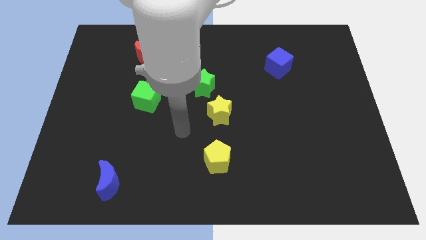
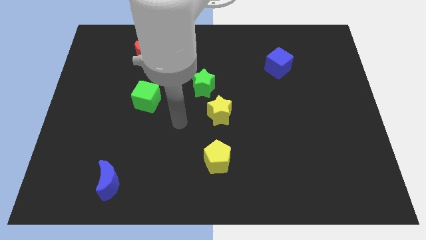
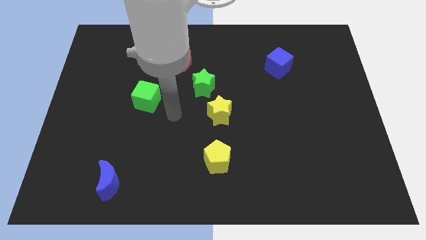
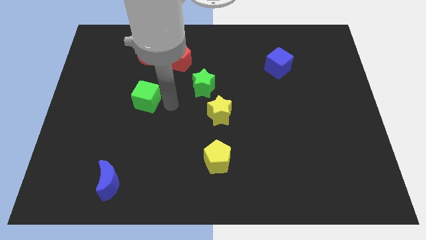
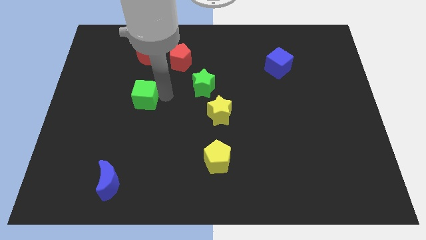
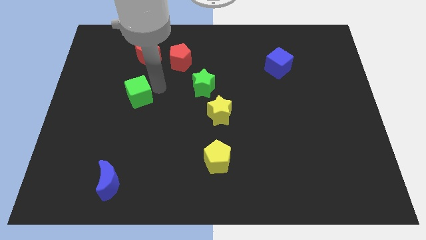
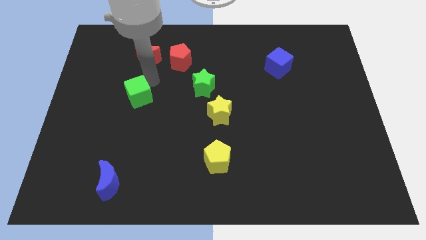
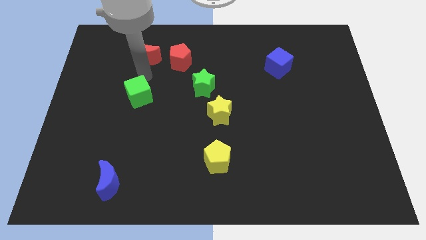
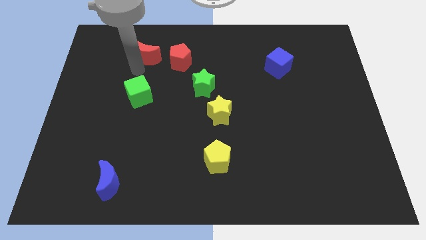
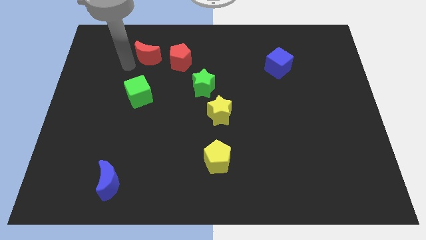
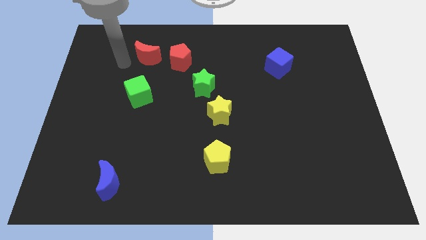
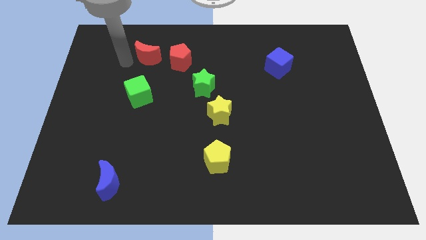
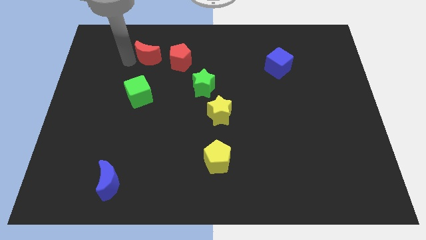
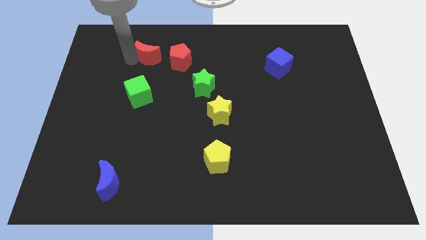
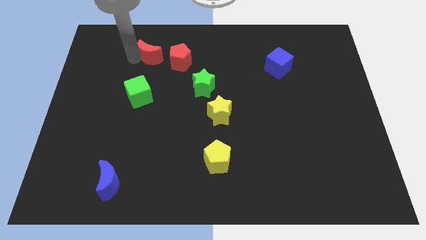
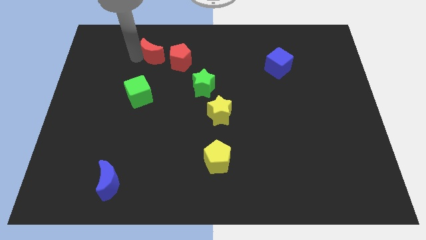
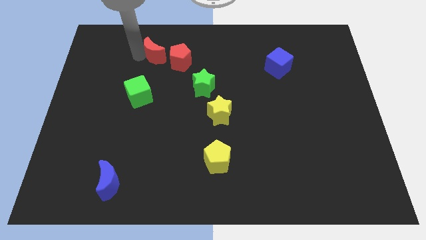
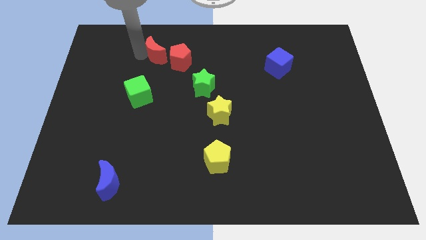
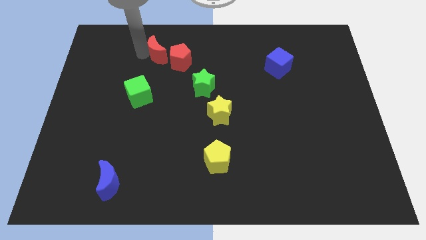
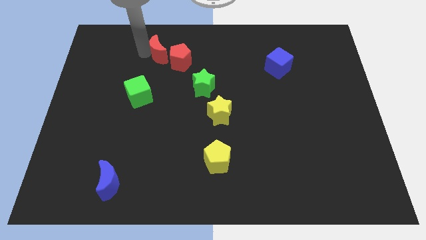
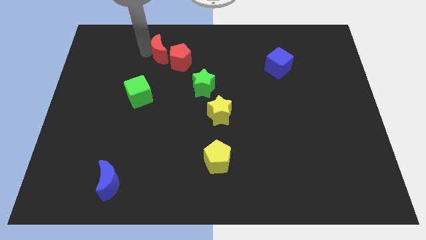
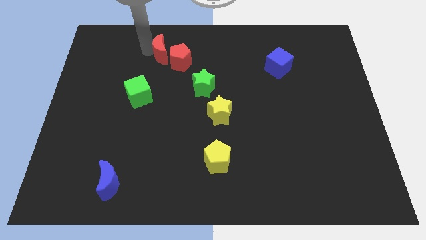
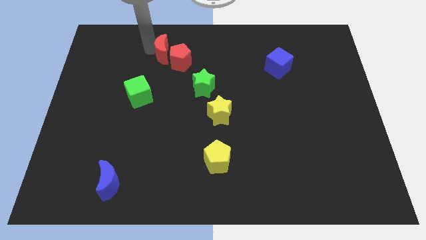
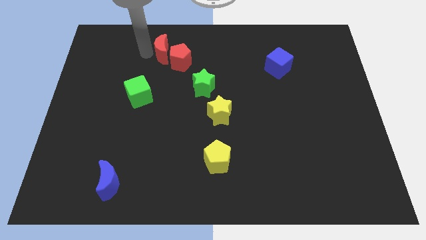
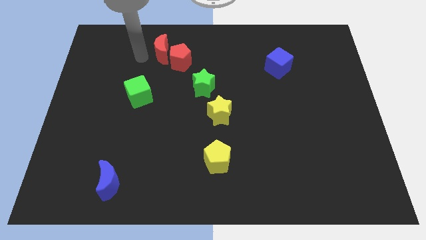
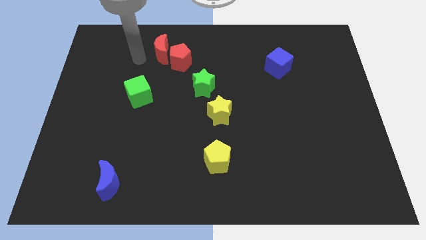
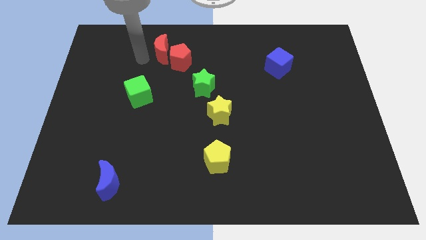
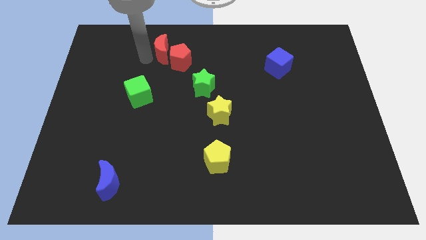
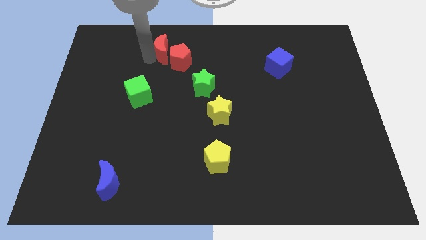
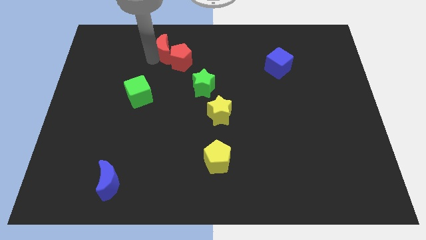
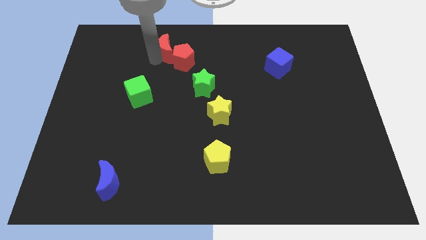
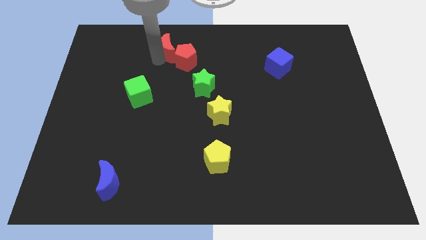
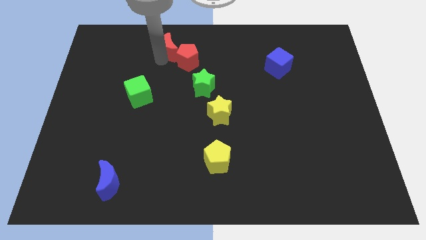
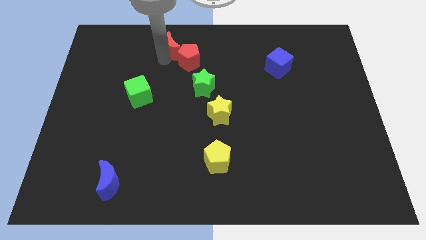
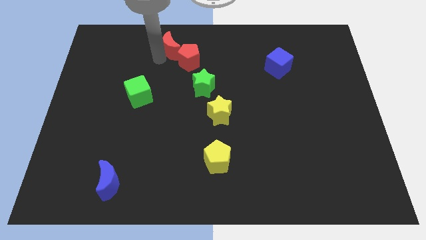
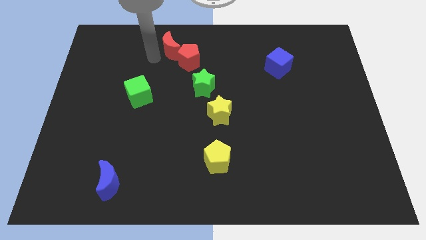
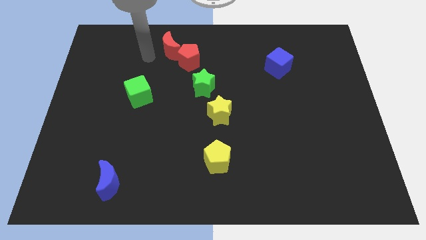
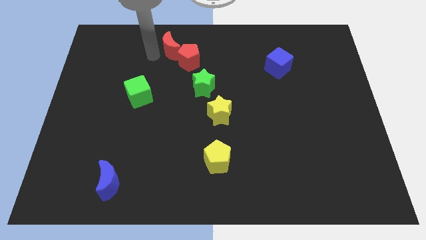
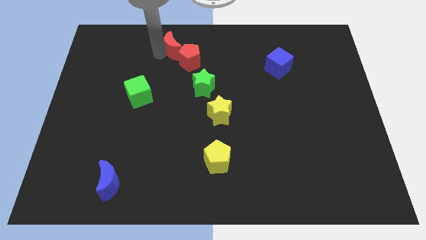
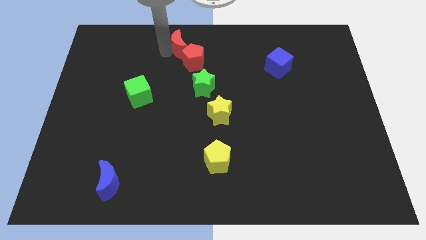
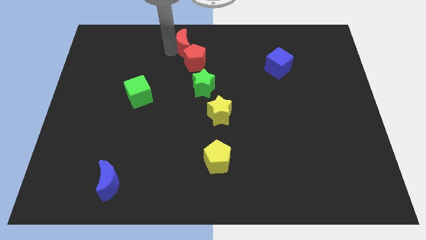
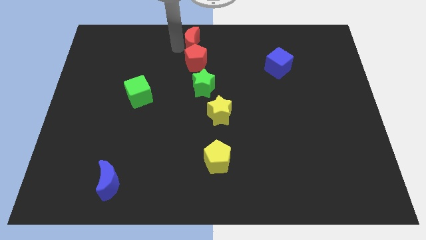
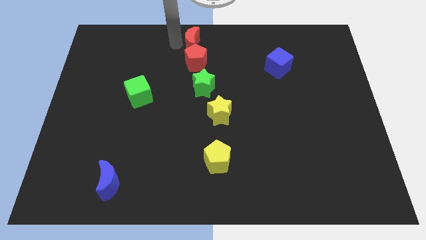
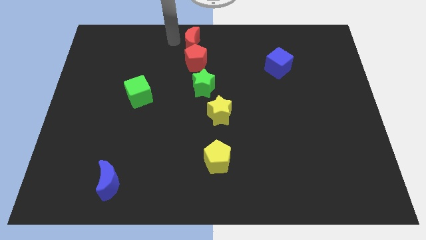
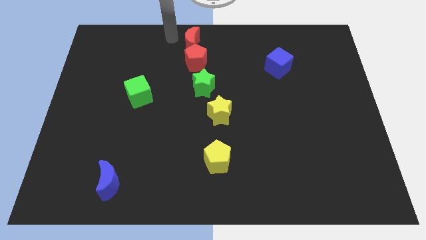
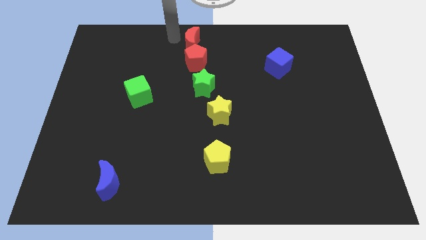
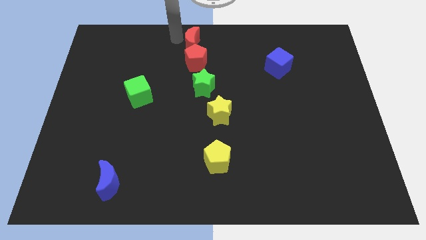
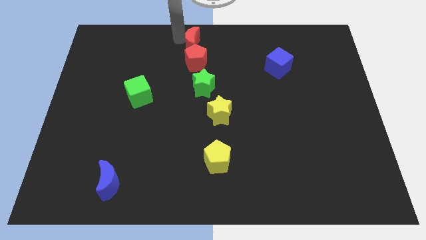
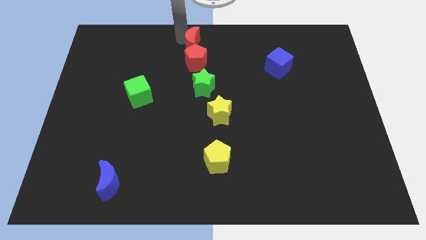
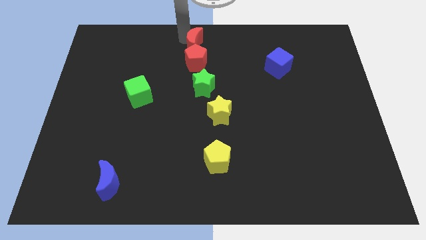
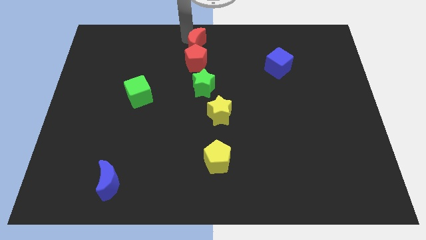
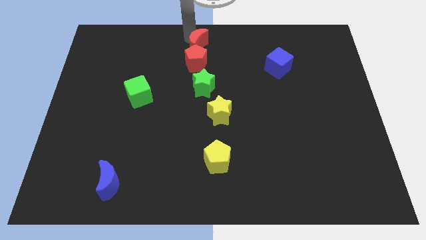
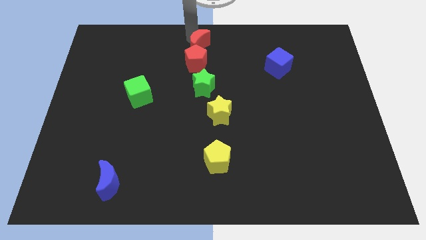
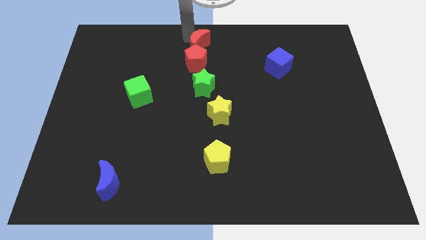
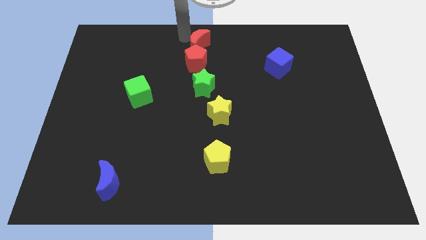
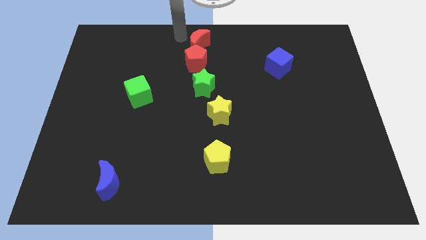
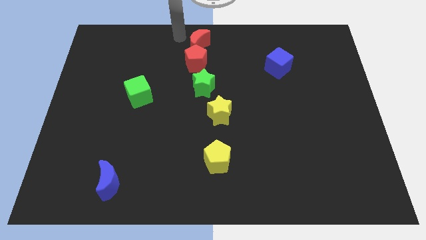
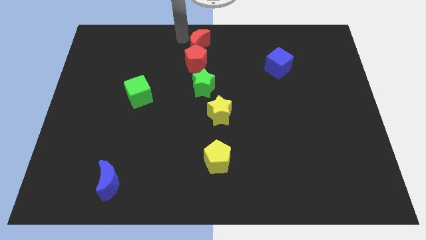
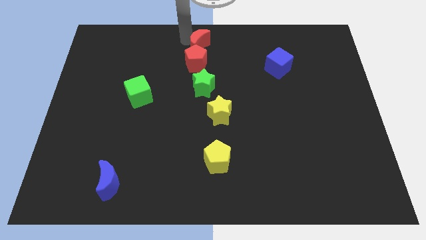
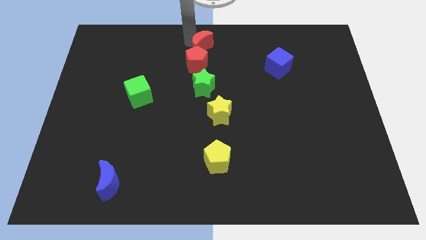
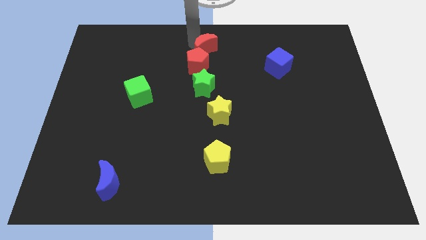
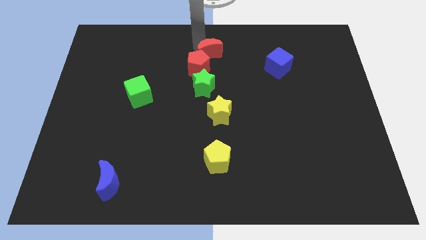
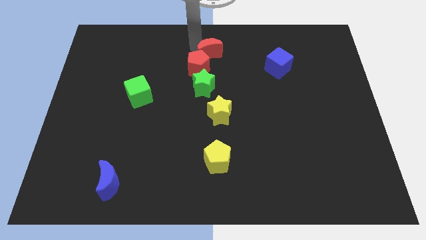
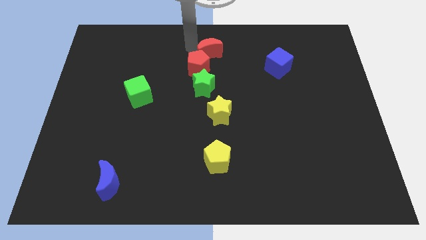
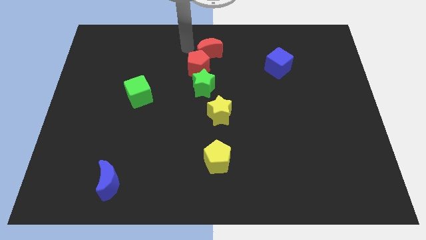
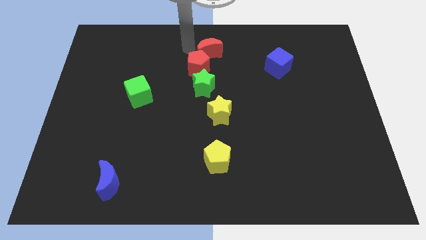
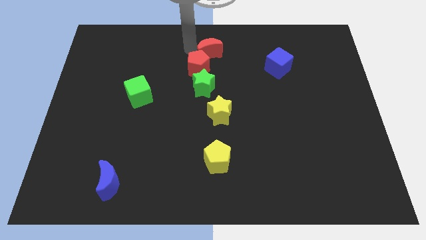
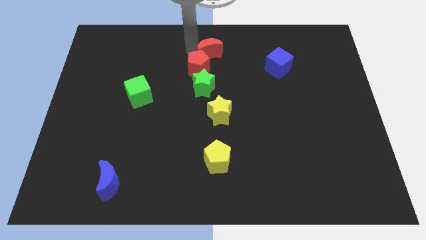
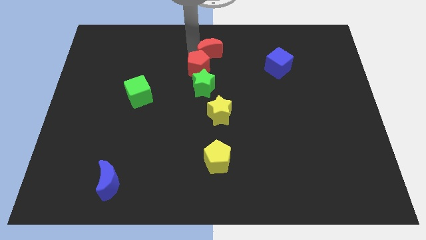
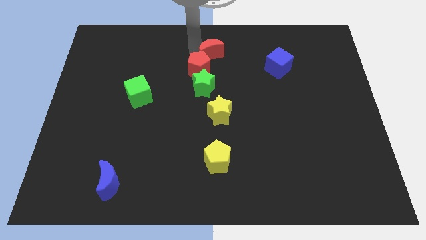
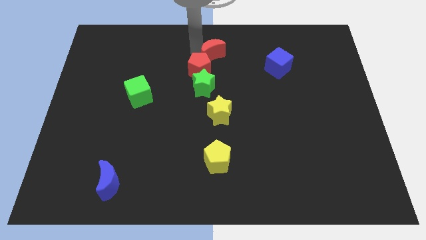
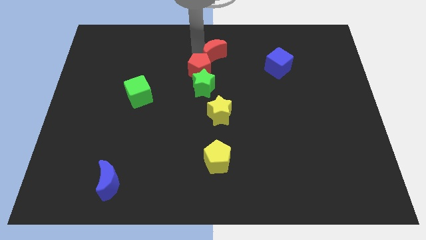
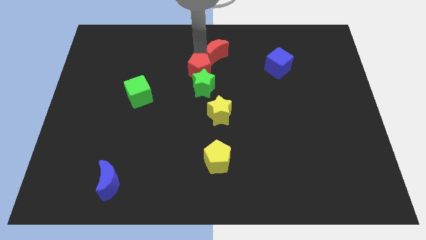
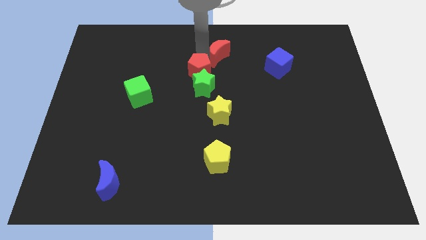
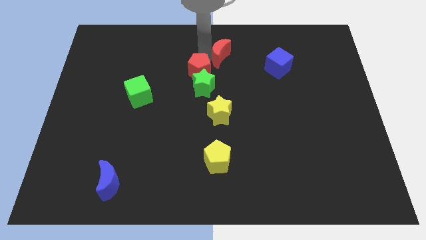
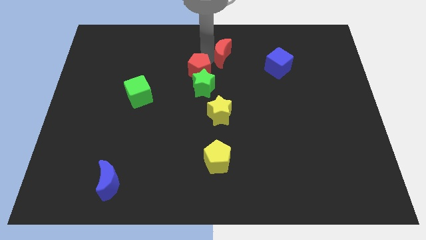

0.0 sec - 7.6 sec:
push the red moon left of the blue cube
